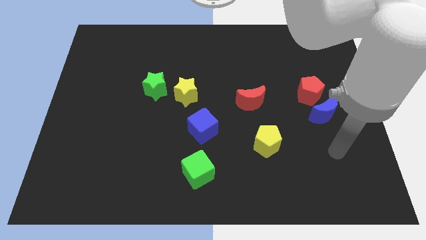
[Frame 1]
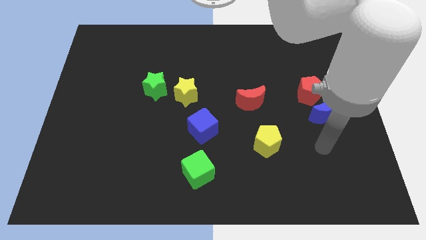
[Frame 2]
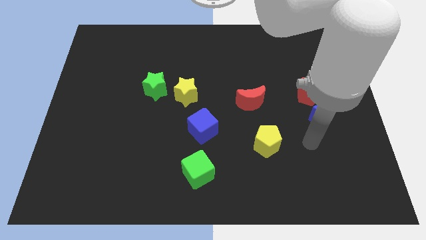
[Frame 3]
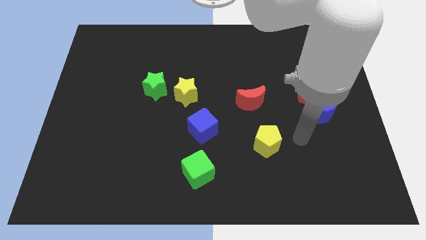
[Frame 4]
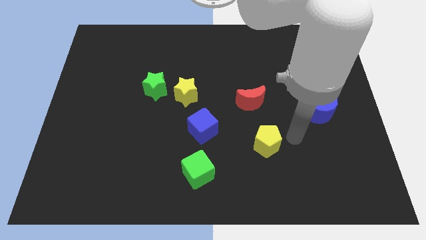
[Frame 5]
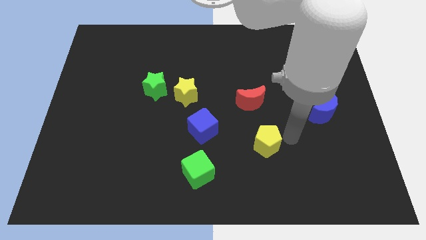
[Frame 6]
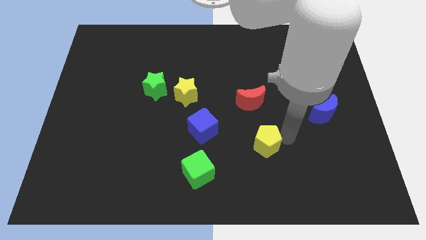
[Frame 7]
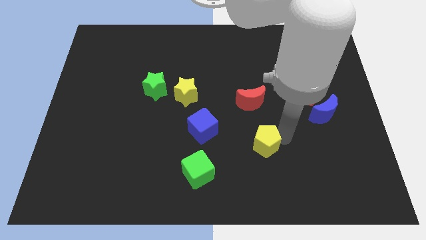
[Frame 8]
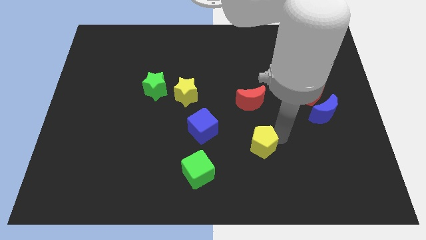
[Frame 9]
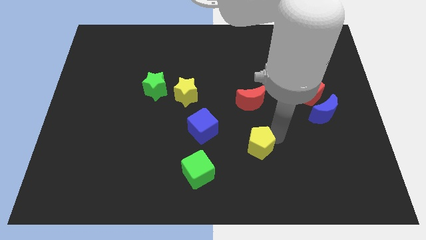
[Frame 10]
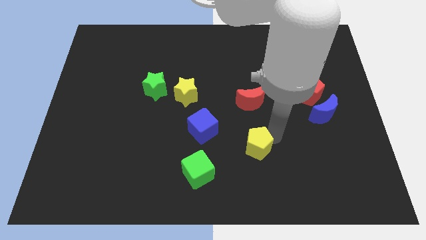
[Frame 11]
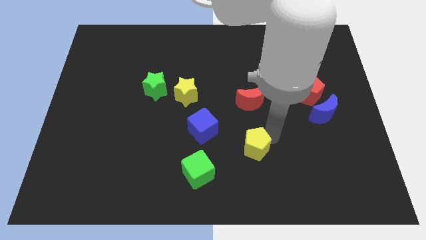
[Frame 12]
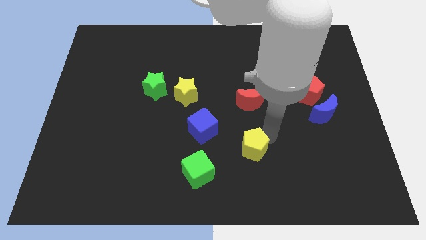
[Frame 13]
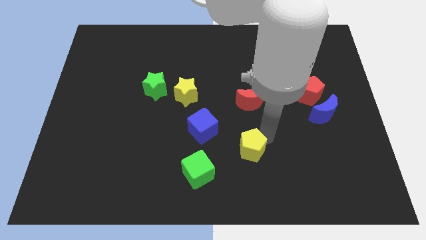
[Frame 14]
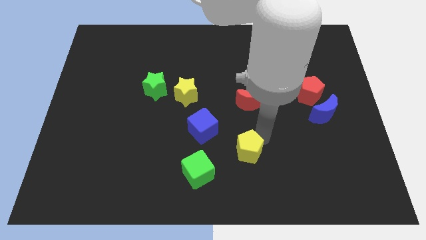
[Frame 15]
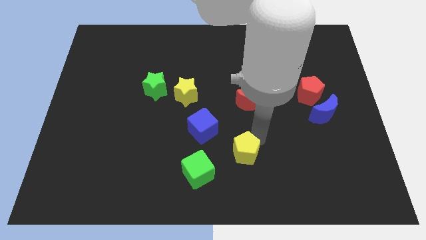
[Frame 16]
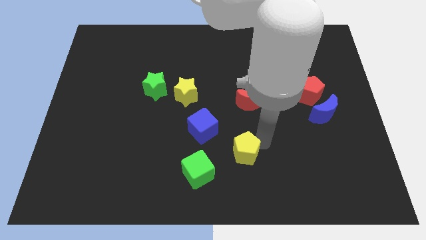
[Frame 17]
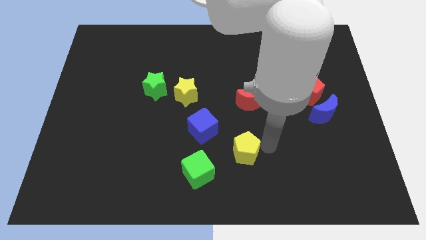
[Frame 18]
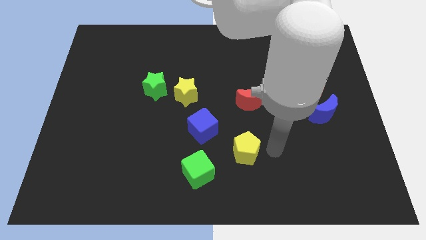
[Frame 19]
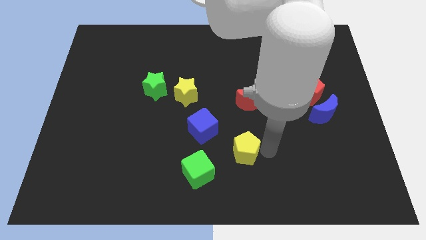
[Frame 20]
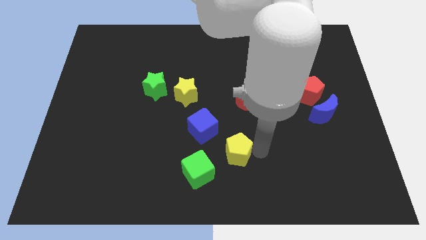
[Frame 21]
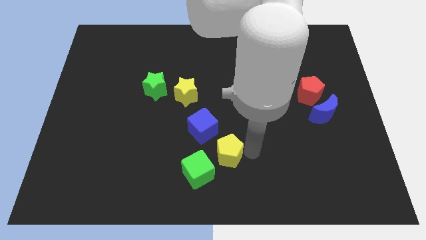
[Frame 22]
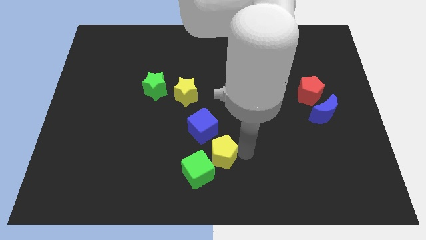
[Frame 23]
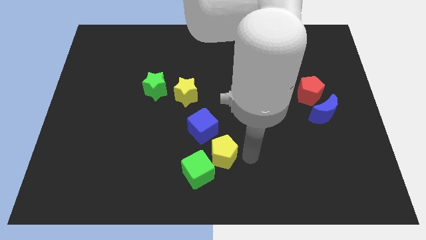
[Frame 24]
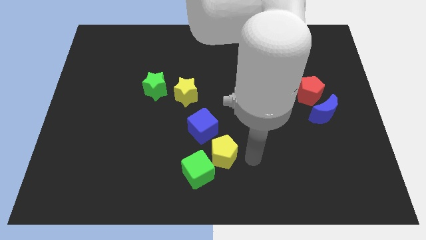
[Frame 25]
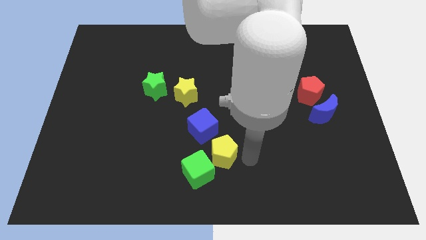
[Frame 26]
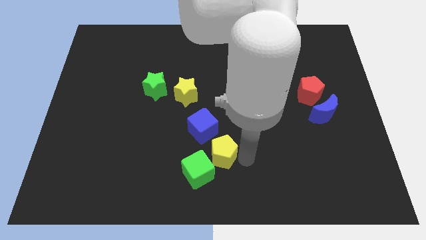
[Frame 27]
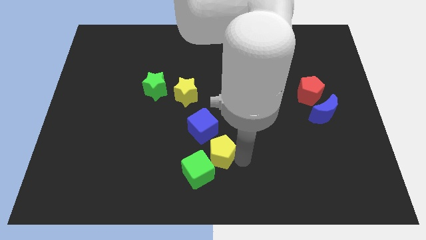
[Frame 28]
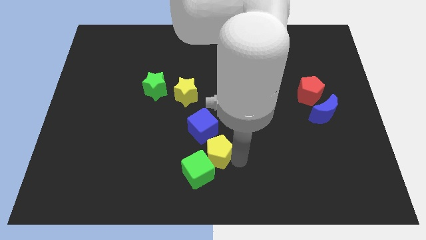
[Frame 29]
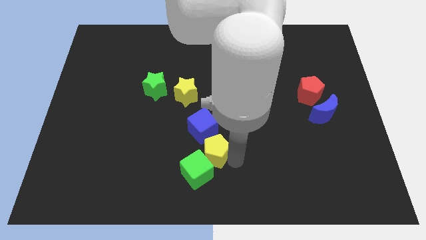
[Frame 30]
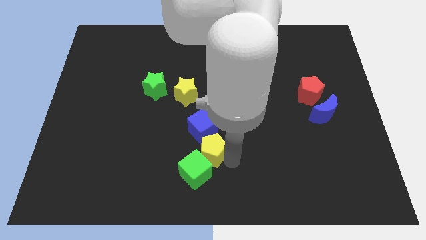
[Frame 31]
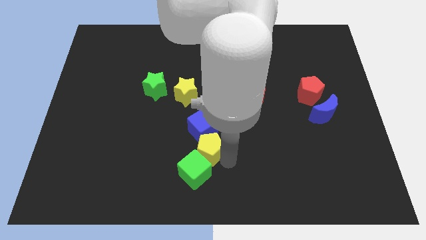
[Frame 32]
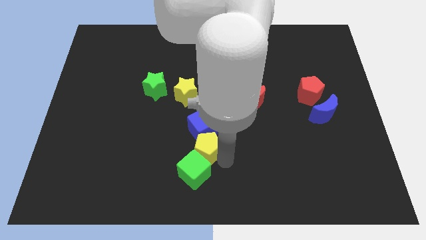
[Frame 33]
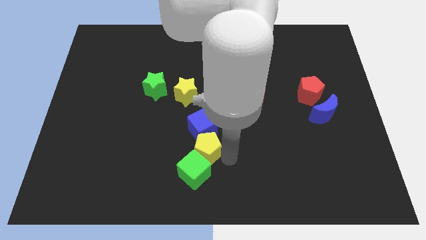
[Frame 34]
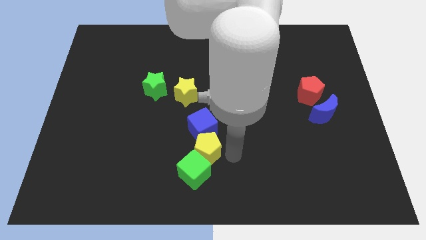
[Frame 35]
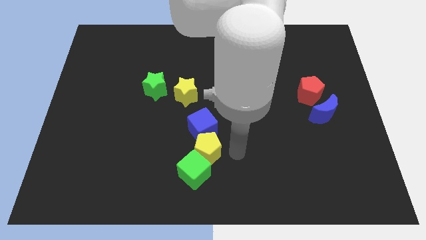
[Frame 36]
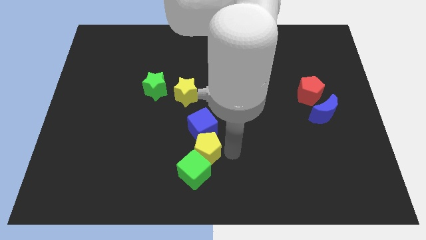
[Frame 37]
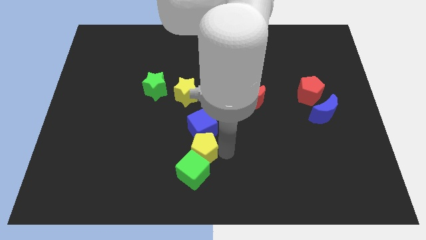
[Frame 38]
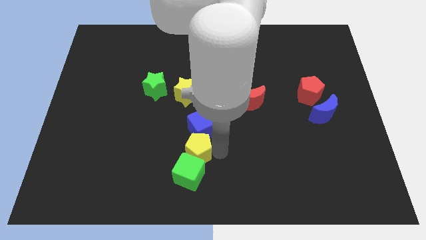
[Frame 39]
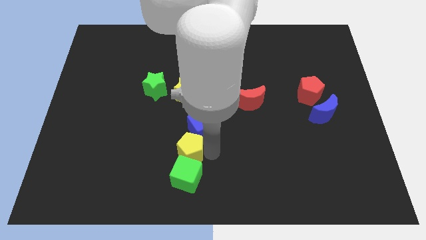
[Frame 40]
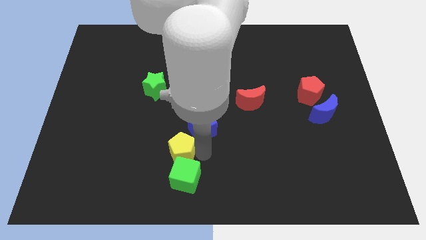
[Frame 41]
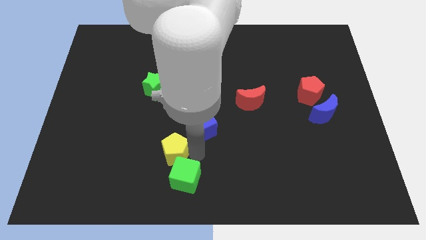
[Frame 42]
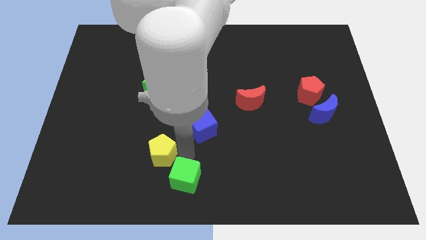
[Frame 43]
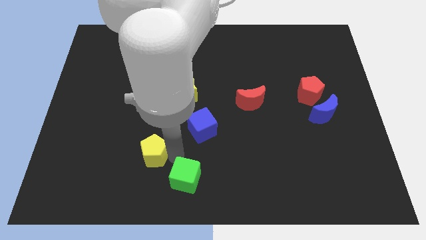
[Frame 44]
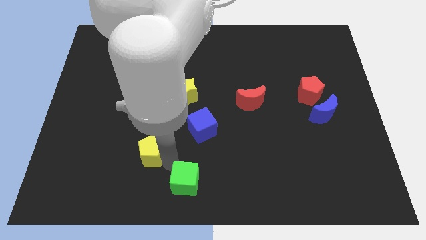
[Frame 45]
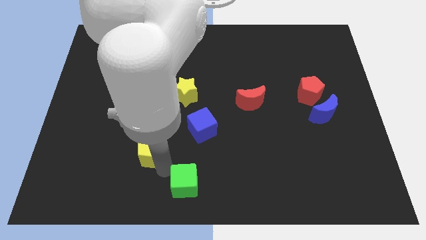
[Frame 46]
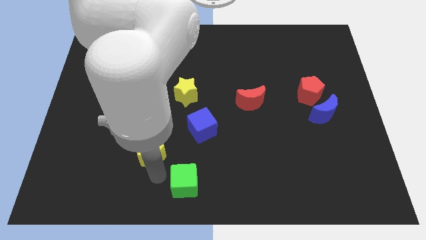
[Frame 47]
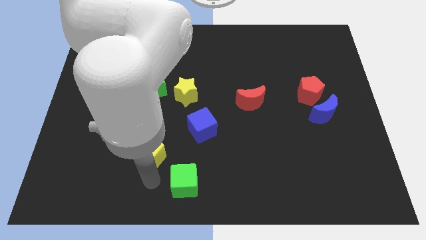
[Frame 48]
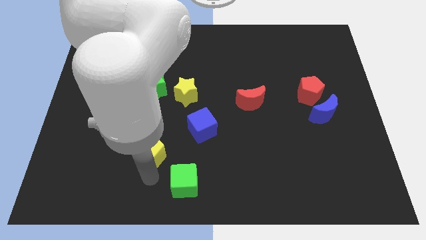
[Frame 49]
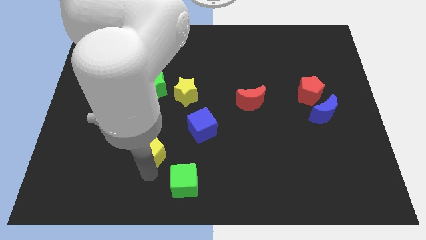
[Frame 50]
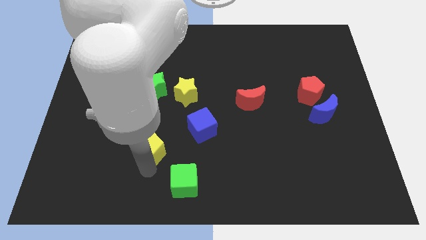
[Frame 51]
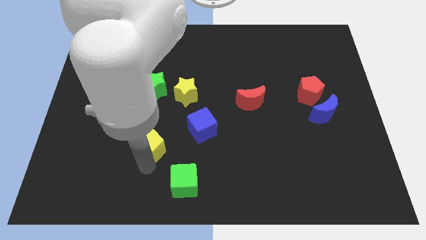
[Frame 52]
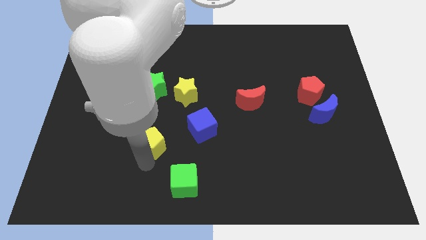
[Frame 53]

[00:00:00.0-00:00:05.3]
slide the yellow pentagon to the bottom of the green star

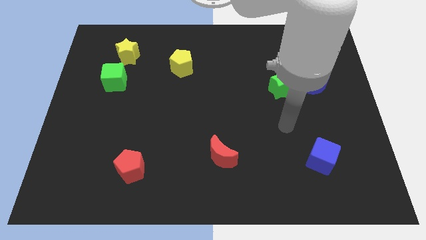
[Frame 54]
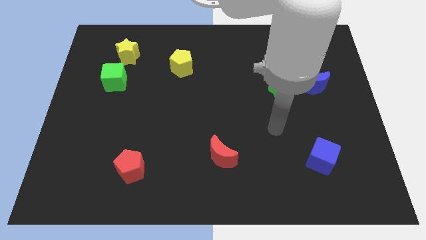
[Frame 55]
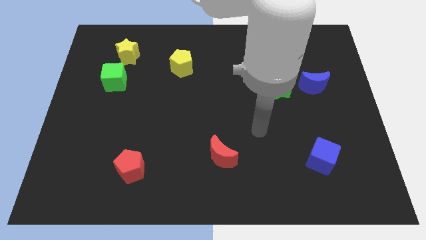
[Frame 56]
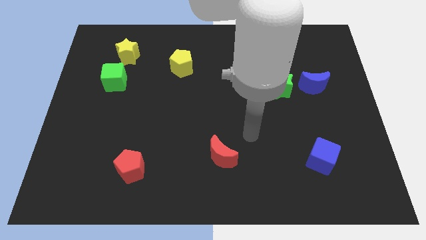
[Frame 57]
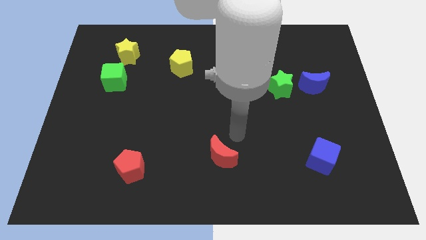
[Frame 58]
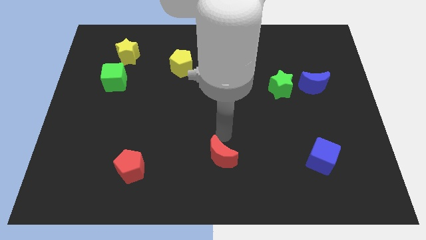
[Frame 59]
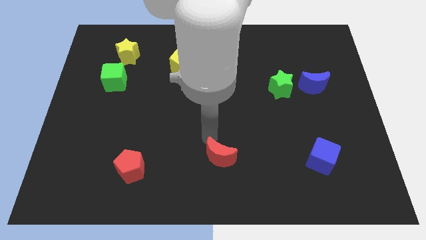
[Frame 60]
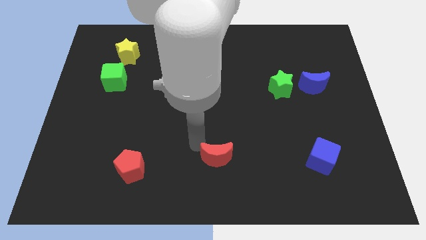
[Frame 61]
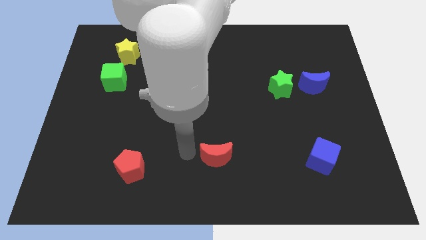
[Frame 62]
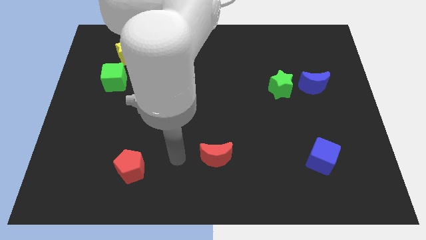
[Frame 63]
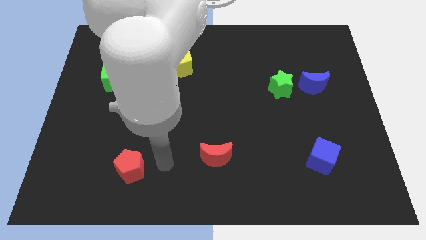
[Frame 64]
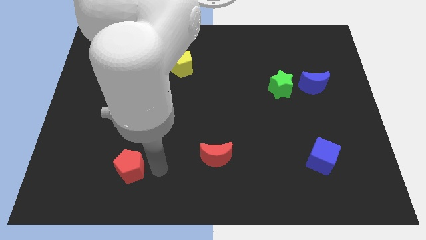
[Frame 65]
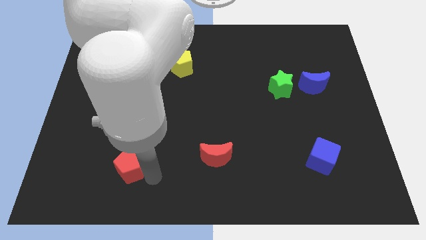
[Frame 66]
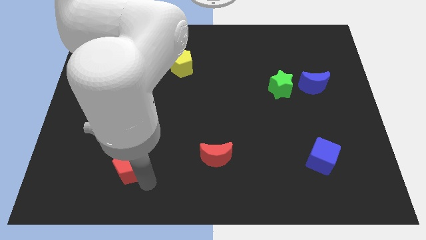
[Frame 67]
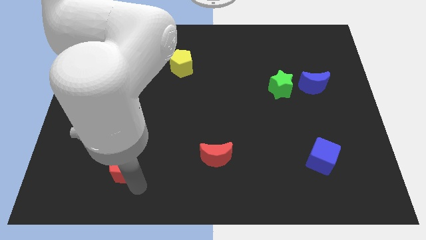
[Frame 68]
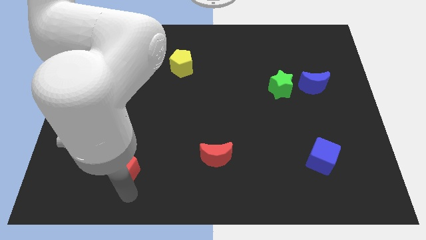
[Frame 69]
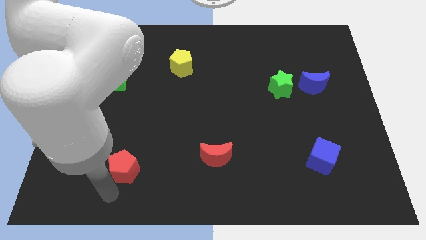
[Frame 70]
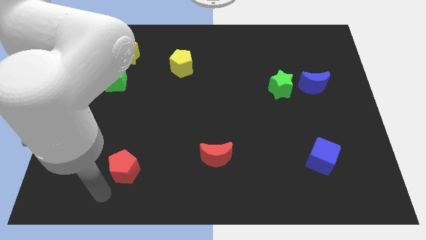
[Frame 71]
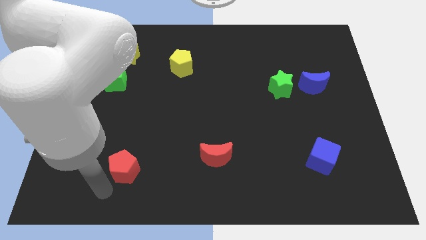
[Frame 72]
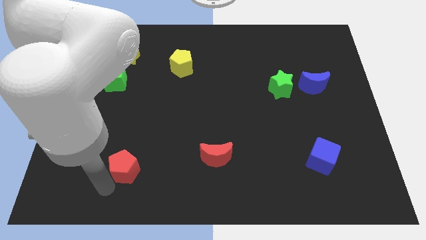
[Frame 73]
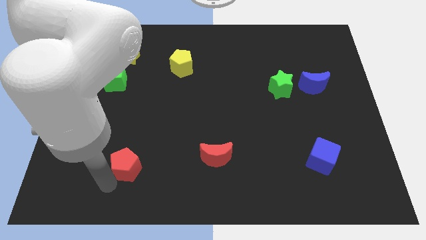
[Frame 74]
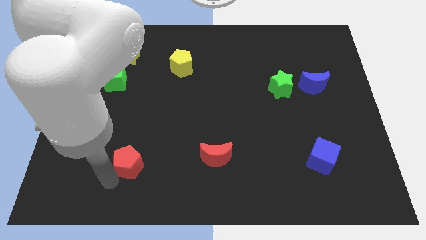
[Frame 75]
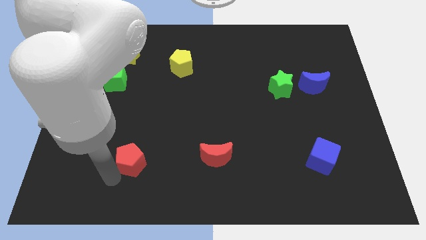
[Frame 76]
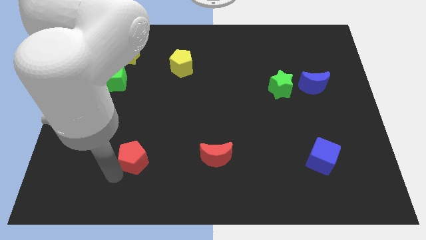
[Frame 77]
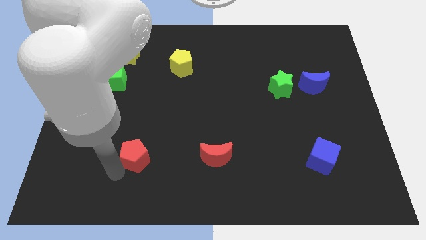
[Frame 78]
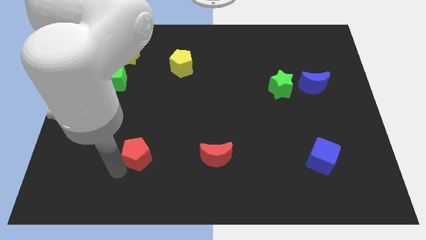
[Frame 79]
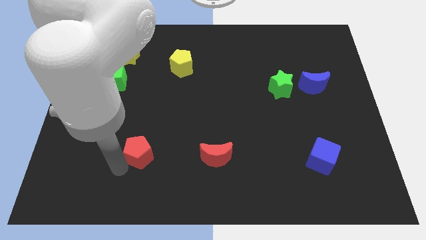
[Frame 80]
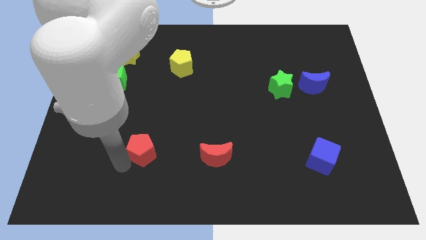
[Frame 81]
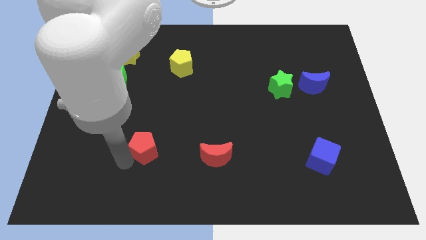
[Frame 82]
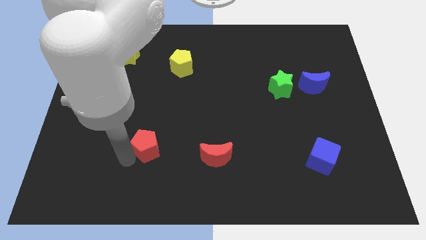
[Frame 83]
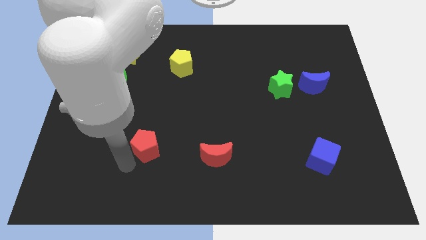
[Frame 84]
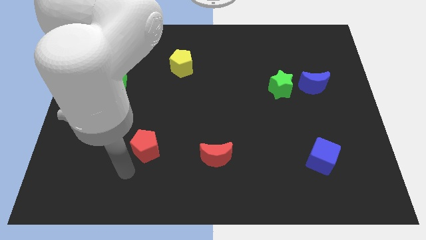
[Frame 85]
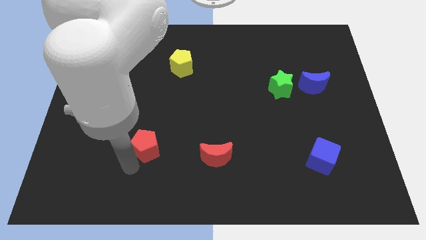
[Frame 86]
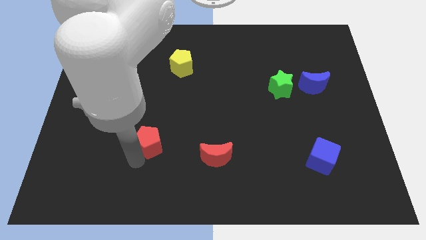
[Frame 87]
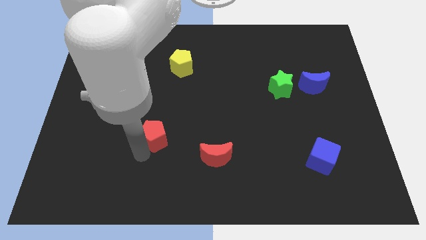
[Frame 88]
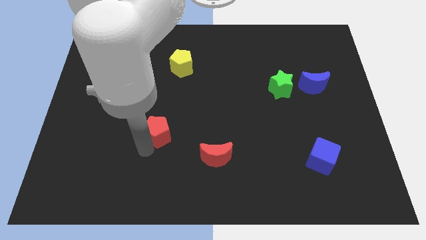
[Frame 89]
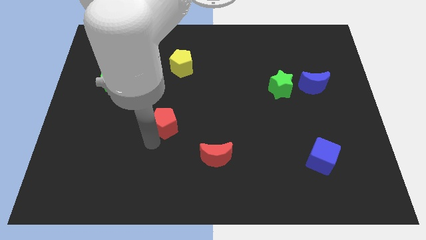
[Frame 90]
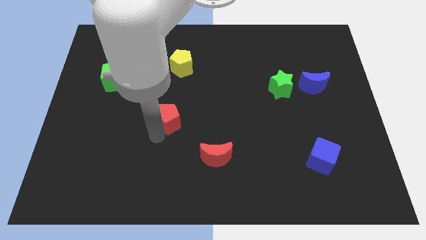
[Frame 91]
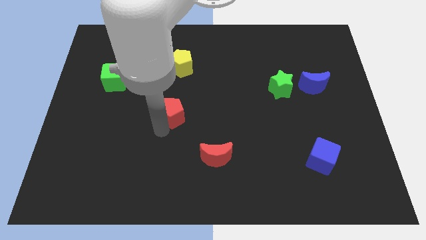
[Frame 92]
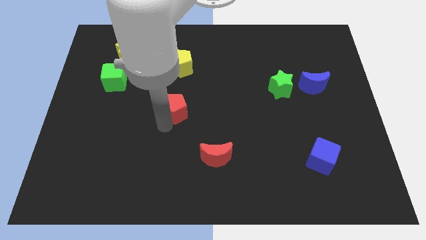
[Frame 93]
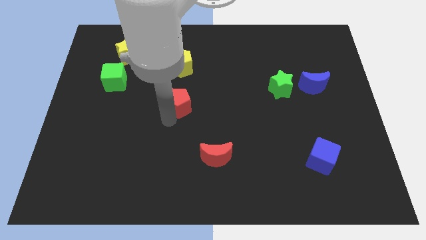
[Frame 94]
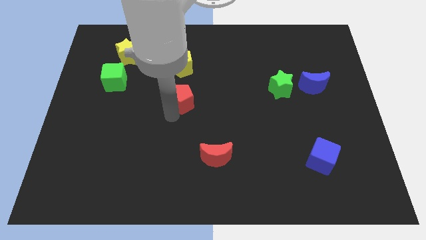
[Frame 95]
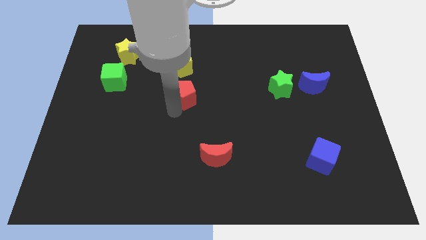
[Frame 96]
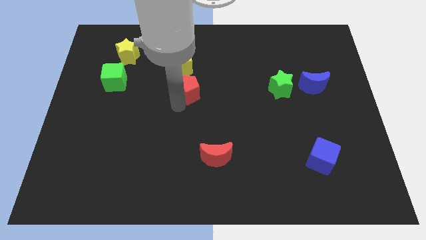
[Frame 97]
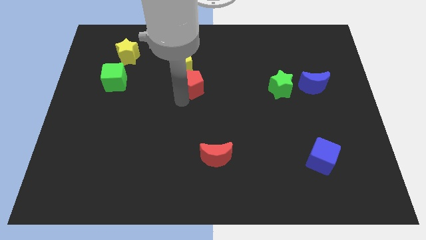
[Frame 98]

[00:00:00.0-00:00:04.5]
put the red pentagon to the bottom right of the yellow pentagon
